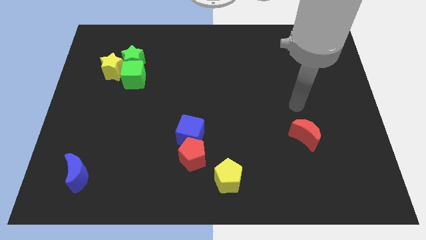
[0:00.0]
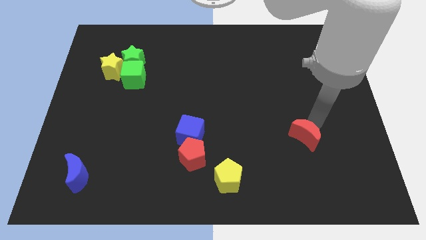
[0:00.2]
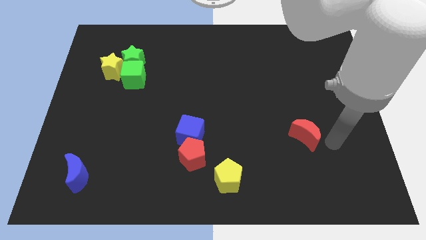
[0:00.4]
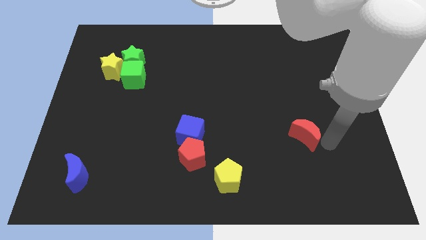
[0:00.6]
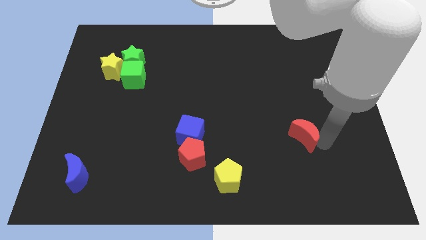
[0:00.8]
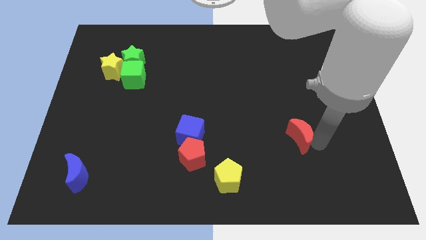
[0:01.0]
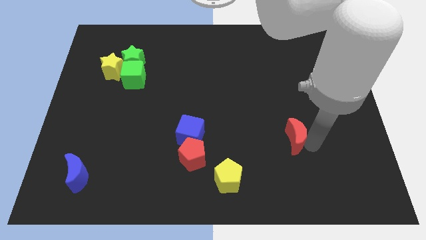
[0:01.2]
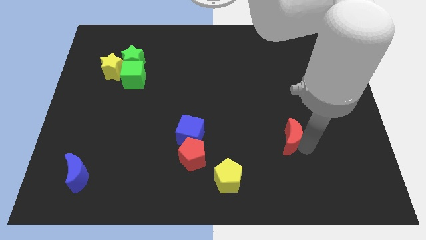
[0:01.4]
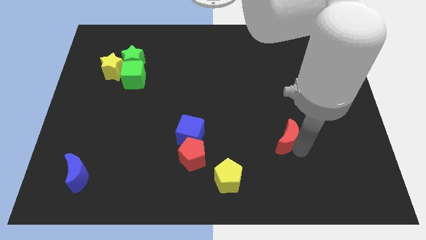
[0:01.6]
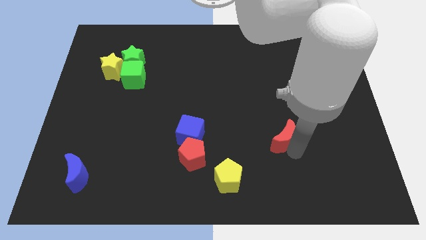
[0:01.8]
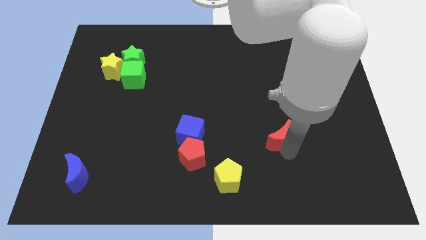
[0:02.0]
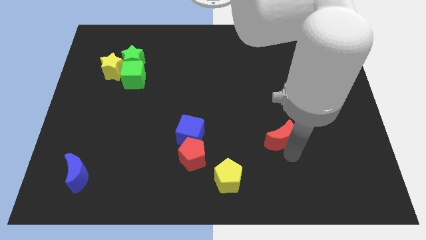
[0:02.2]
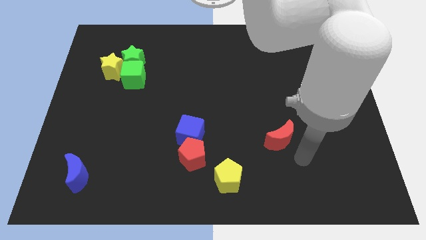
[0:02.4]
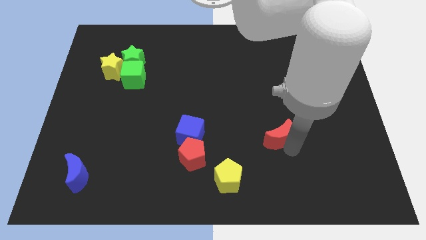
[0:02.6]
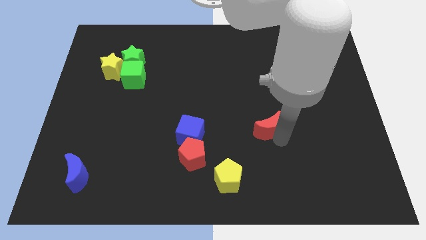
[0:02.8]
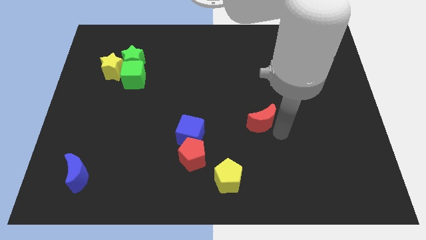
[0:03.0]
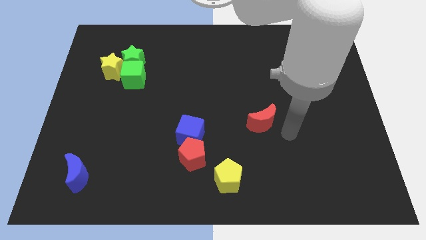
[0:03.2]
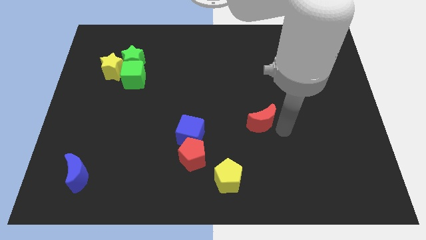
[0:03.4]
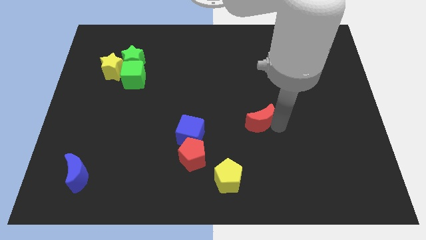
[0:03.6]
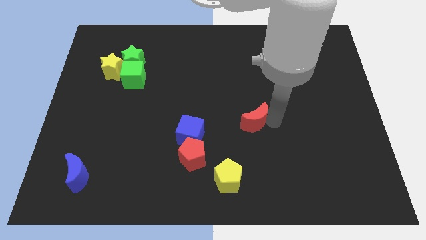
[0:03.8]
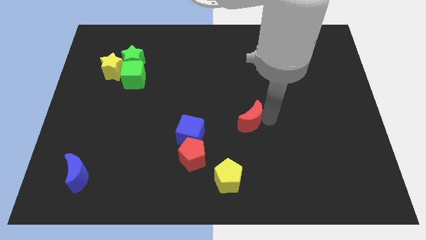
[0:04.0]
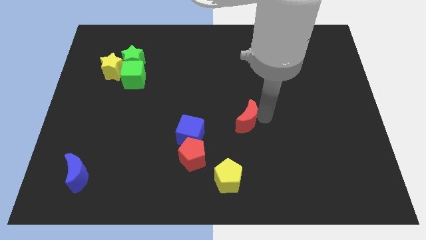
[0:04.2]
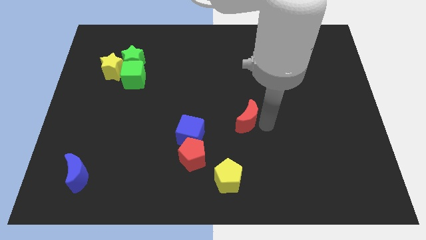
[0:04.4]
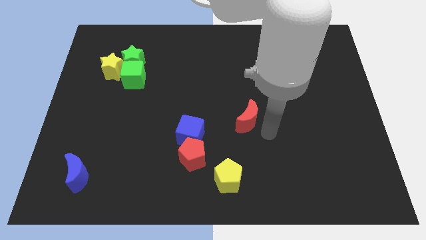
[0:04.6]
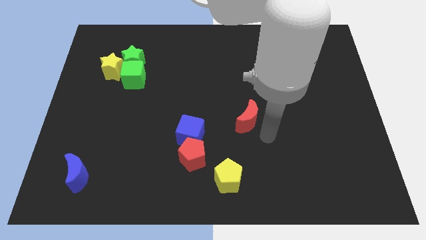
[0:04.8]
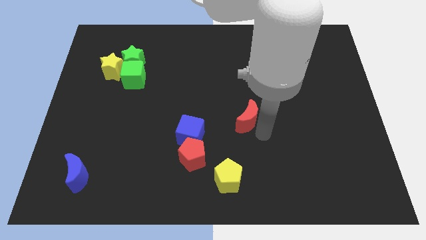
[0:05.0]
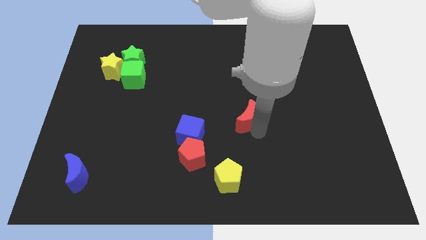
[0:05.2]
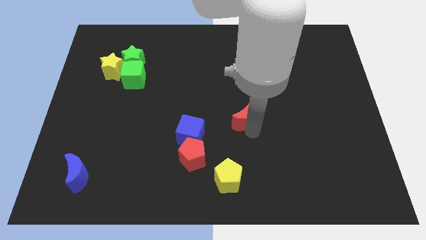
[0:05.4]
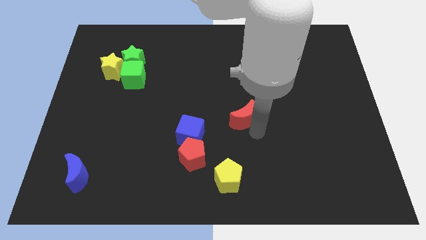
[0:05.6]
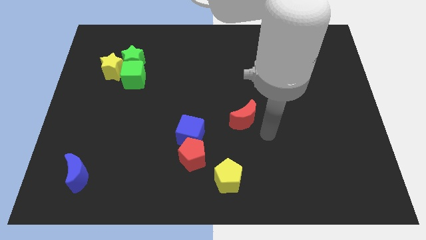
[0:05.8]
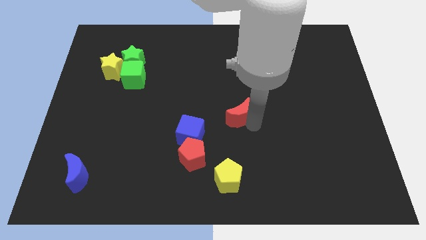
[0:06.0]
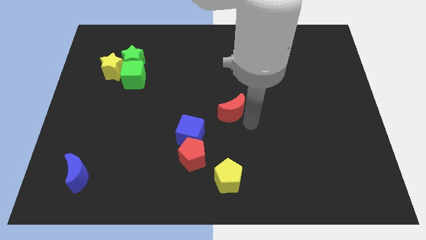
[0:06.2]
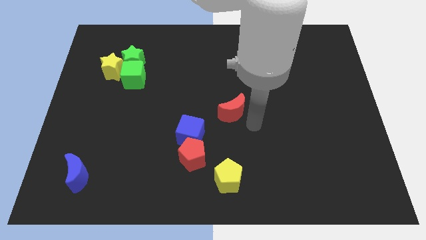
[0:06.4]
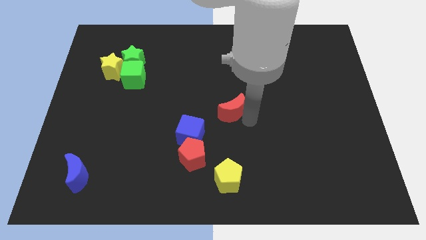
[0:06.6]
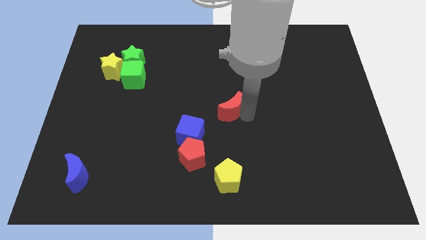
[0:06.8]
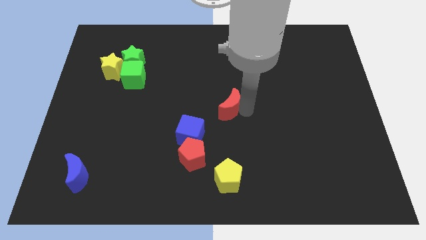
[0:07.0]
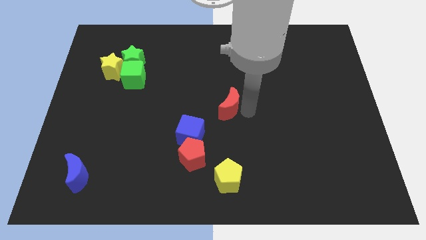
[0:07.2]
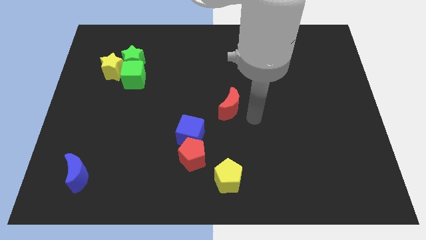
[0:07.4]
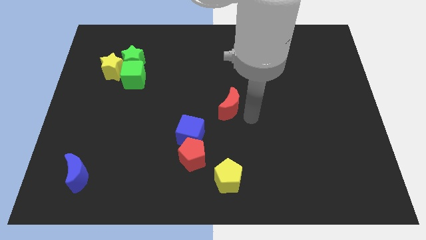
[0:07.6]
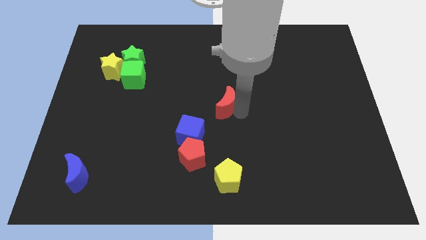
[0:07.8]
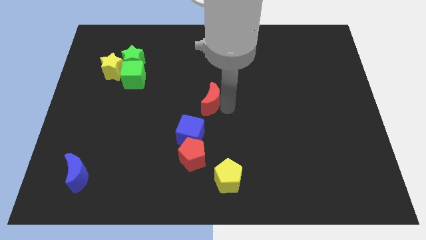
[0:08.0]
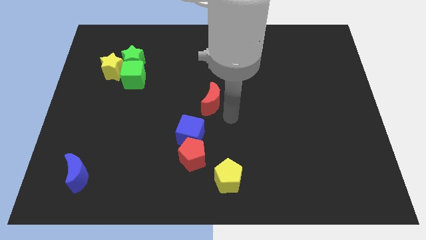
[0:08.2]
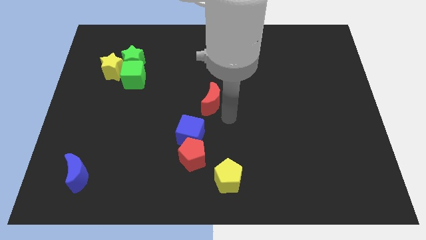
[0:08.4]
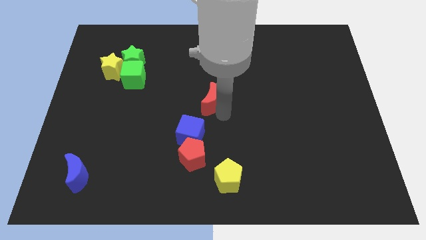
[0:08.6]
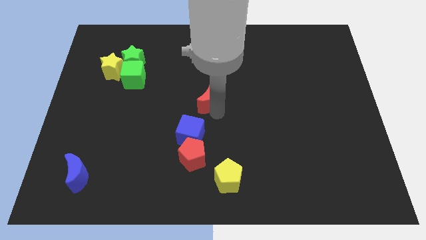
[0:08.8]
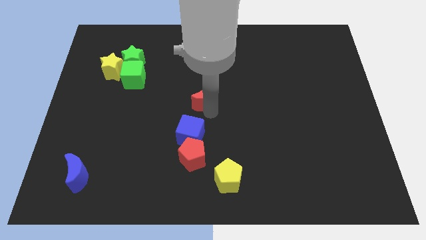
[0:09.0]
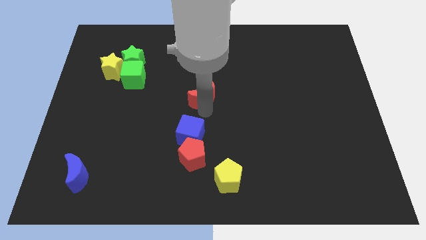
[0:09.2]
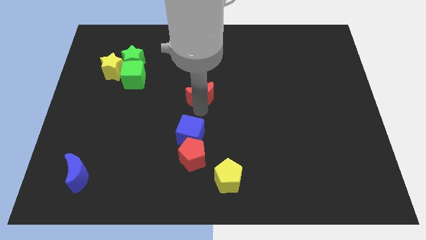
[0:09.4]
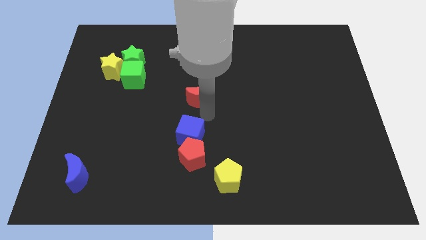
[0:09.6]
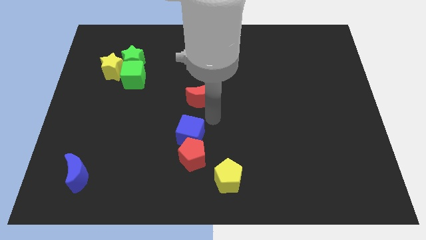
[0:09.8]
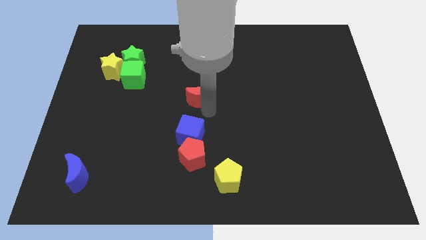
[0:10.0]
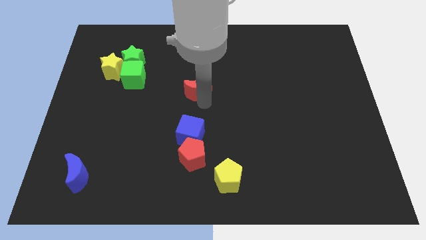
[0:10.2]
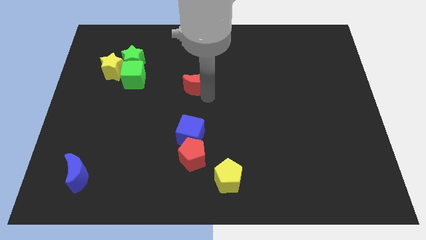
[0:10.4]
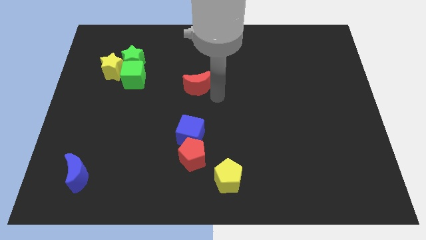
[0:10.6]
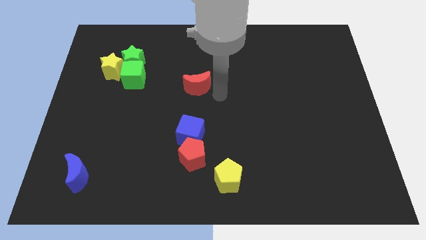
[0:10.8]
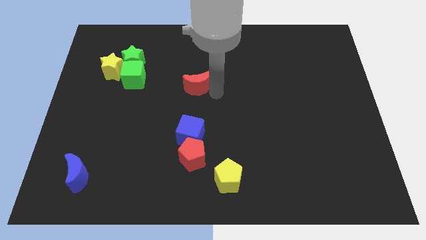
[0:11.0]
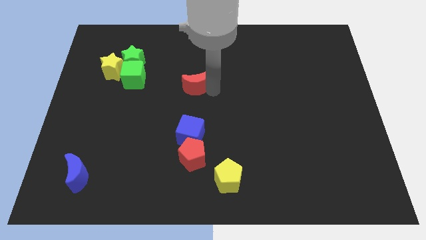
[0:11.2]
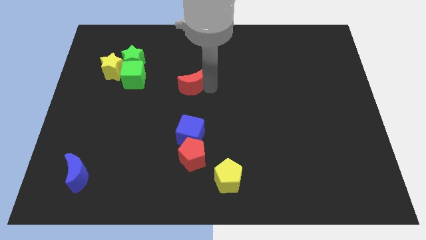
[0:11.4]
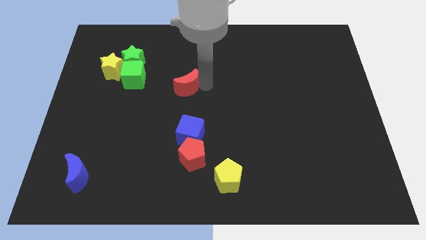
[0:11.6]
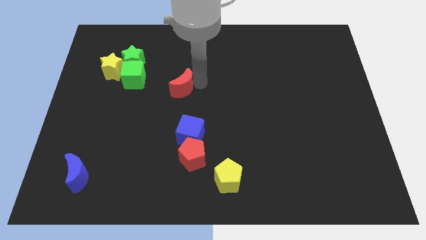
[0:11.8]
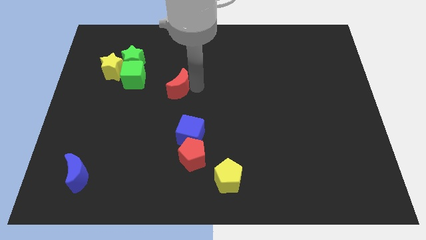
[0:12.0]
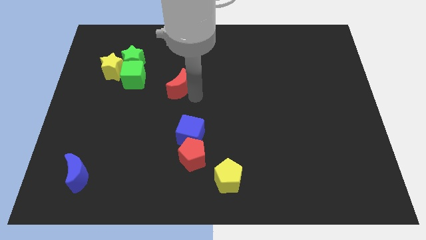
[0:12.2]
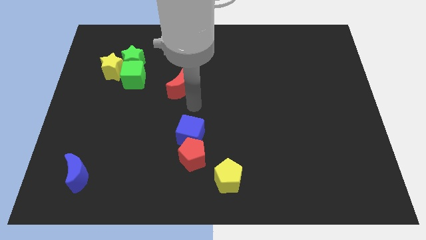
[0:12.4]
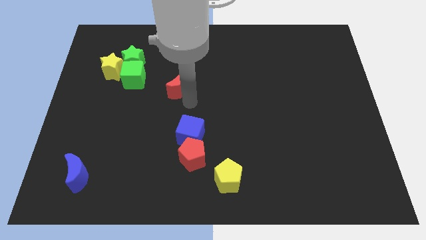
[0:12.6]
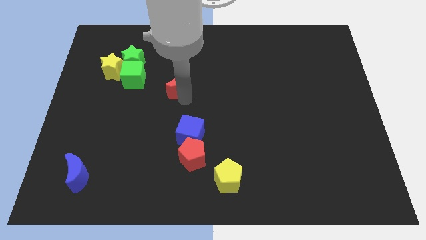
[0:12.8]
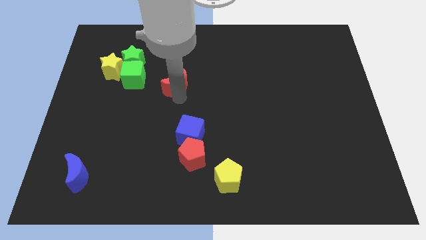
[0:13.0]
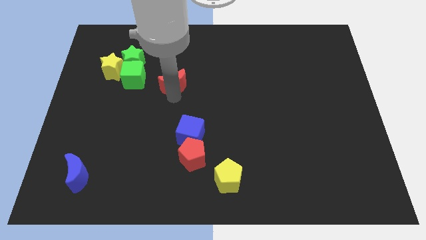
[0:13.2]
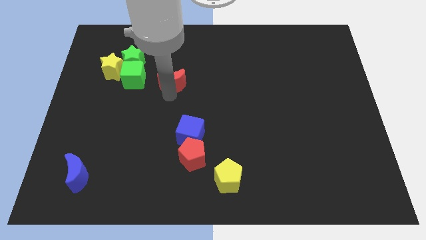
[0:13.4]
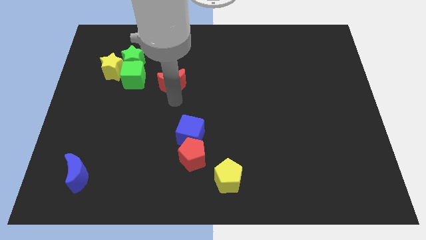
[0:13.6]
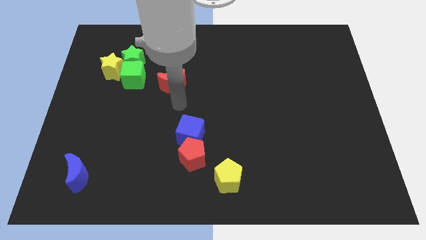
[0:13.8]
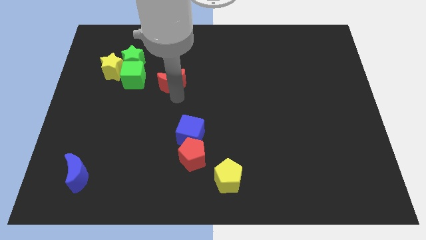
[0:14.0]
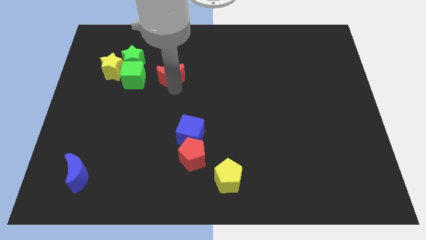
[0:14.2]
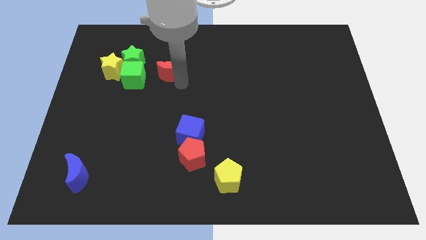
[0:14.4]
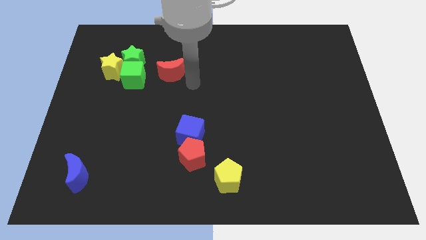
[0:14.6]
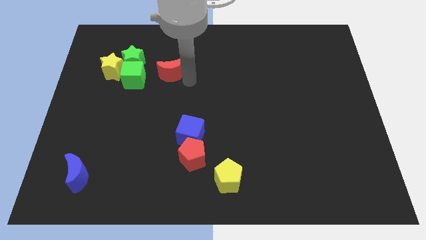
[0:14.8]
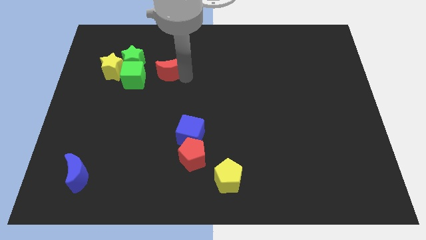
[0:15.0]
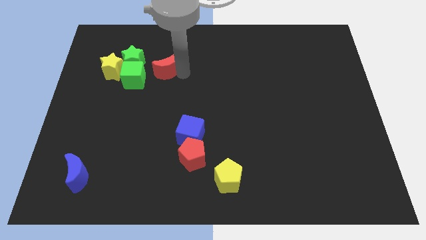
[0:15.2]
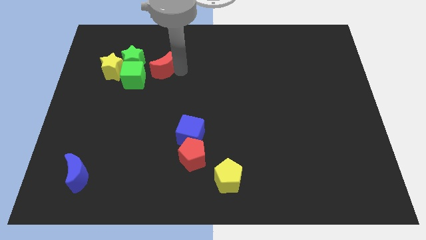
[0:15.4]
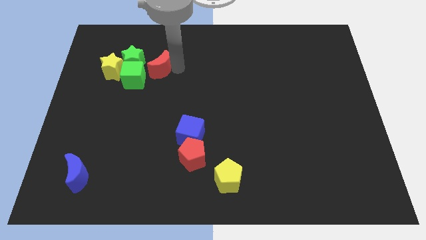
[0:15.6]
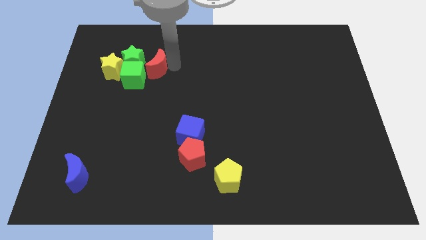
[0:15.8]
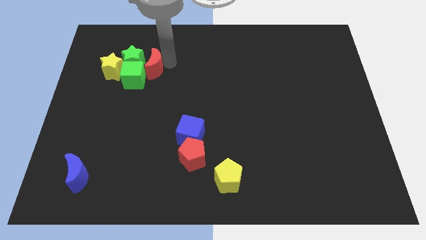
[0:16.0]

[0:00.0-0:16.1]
put the red moon towards the green star
